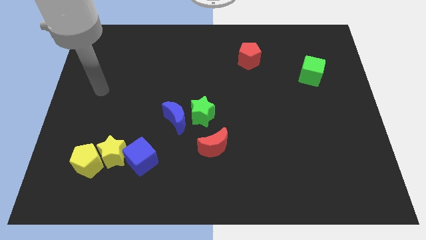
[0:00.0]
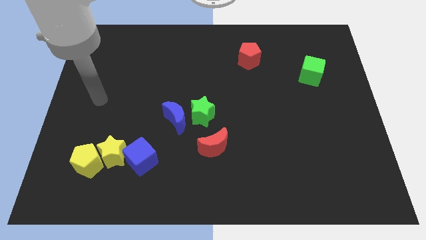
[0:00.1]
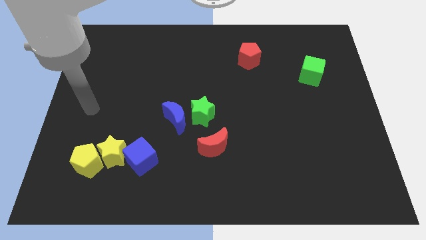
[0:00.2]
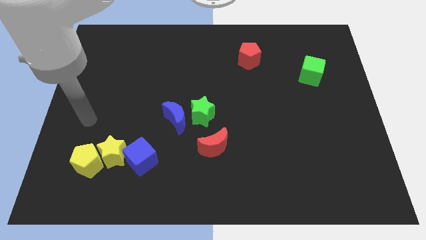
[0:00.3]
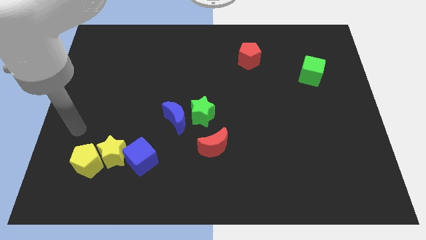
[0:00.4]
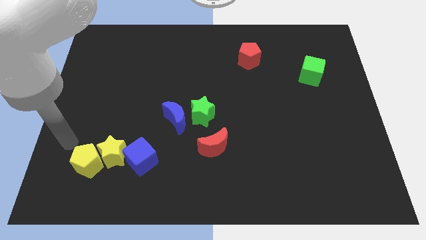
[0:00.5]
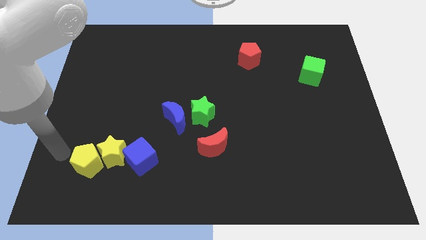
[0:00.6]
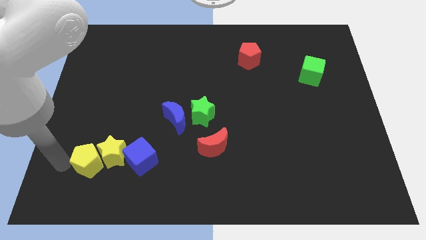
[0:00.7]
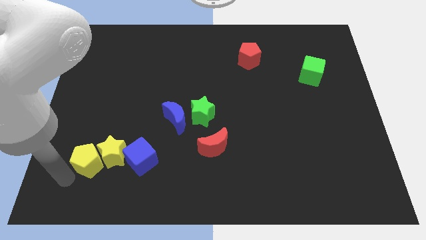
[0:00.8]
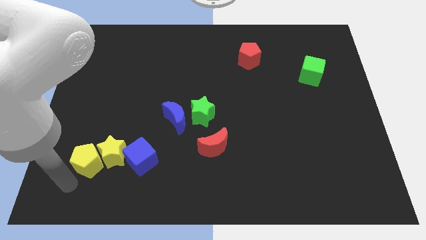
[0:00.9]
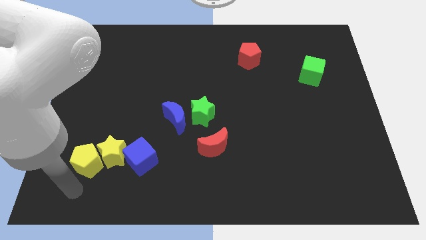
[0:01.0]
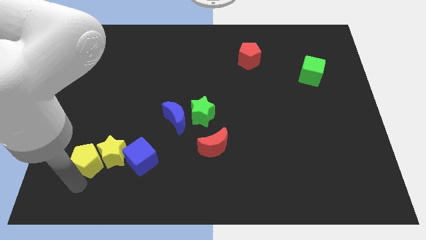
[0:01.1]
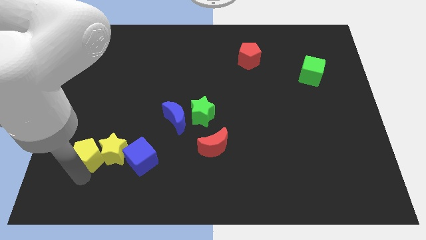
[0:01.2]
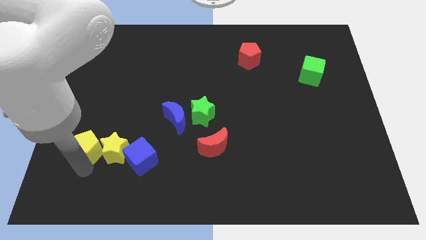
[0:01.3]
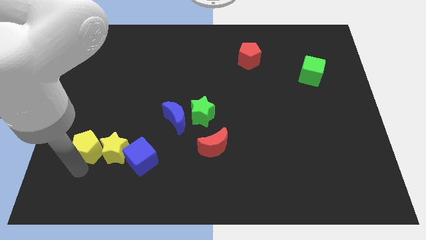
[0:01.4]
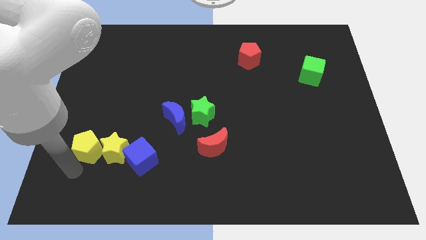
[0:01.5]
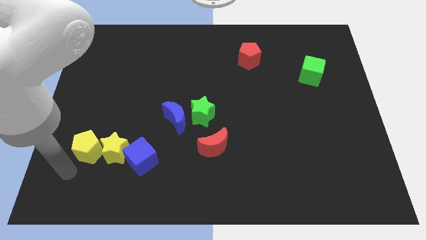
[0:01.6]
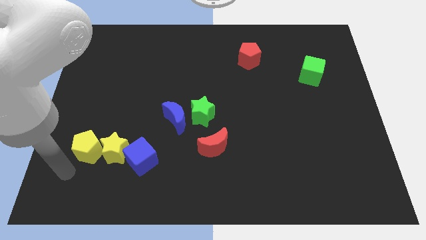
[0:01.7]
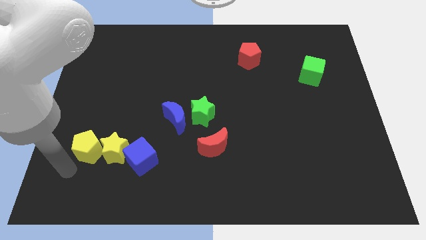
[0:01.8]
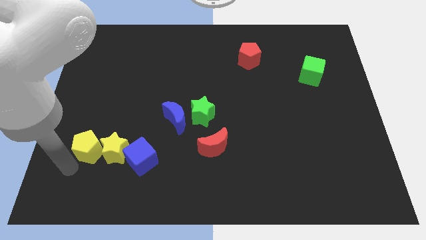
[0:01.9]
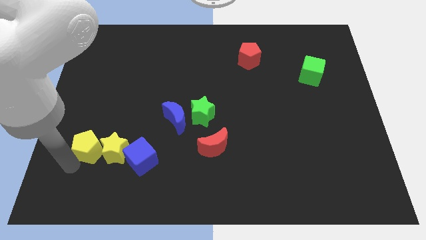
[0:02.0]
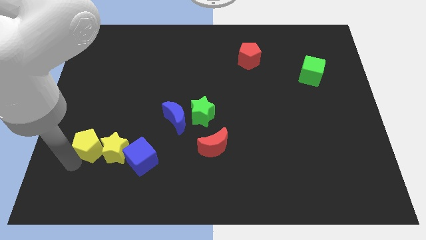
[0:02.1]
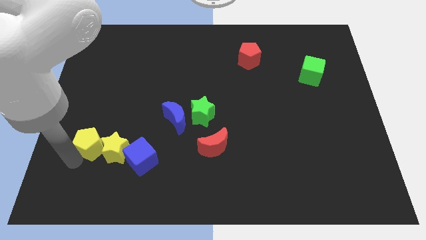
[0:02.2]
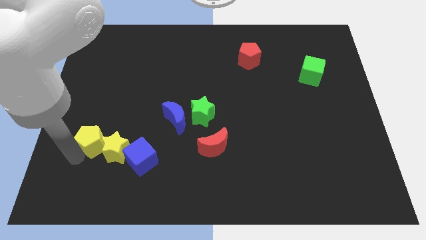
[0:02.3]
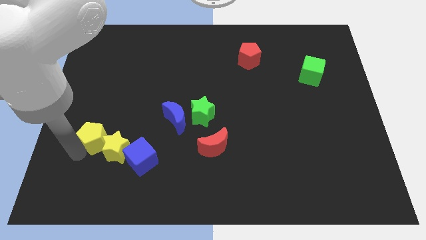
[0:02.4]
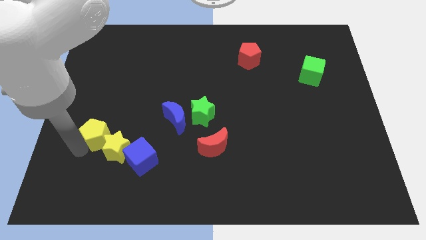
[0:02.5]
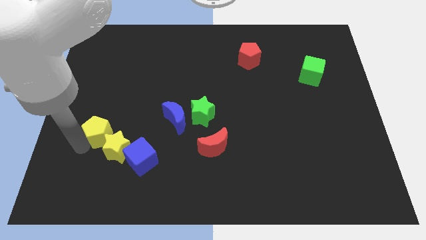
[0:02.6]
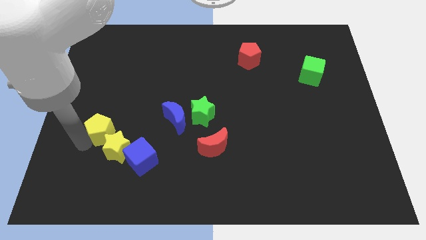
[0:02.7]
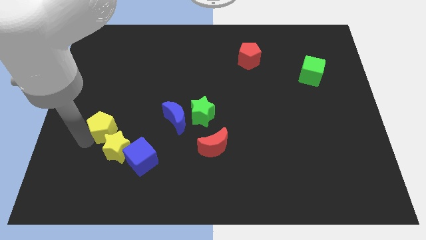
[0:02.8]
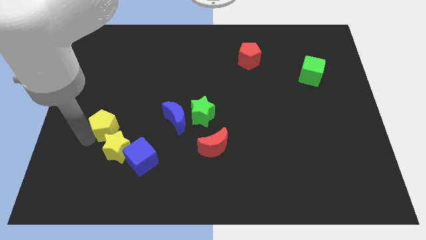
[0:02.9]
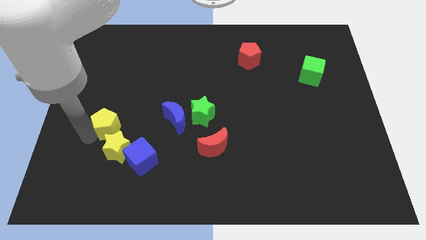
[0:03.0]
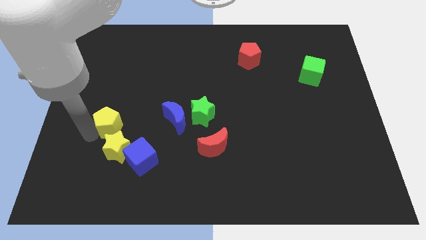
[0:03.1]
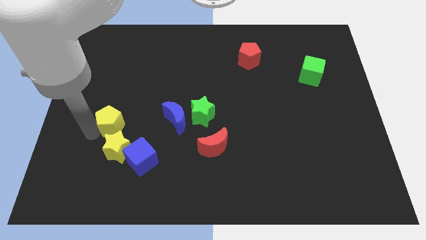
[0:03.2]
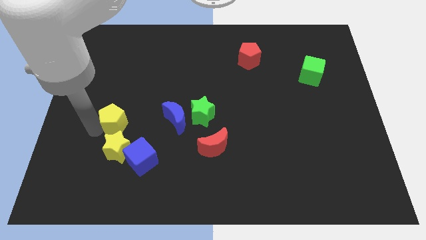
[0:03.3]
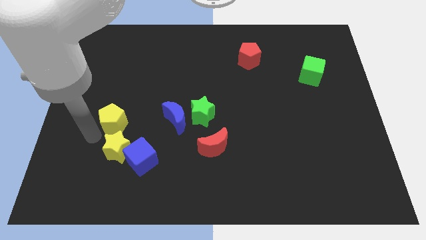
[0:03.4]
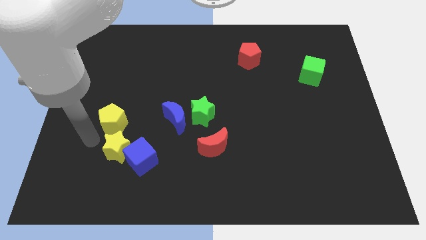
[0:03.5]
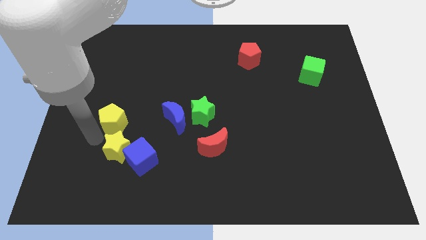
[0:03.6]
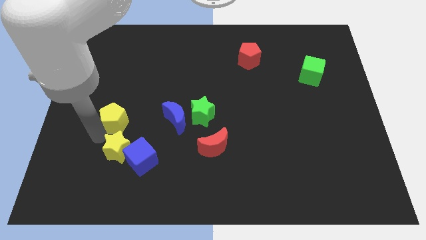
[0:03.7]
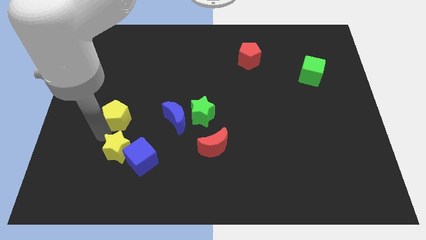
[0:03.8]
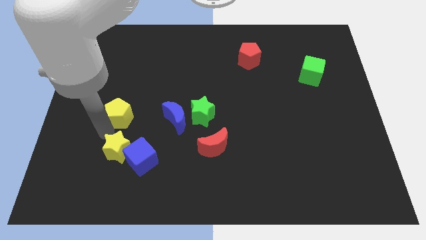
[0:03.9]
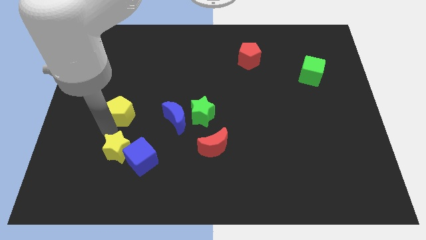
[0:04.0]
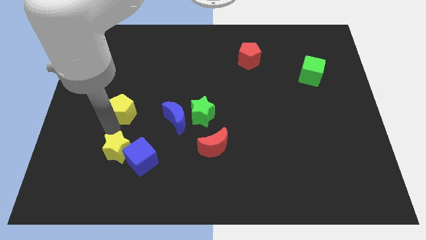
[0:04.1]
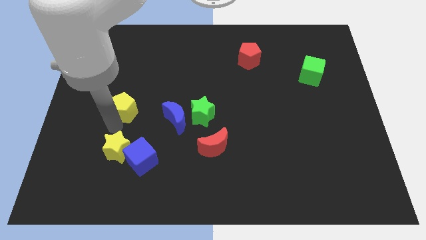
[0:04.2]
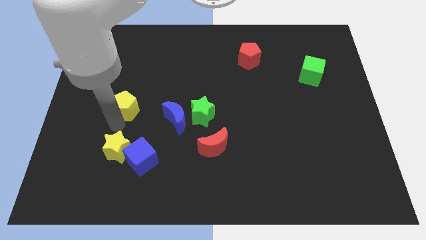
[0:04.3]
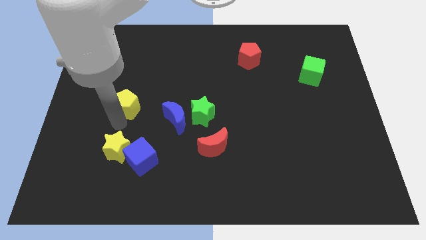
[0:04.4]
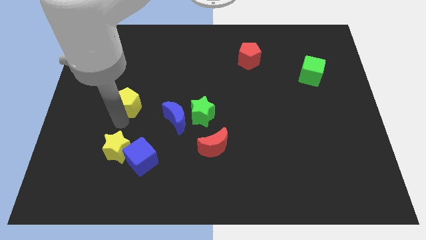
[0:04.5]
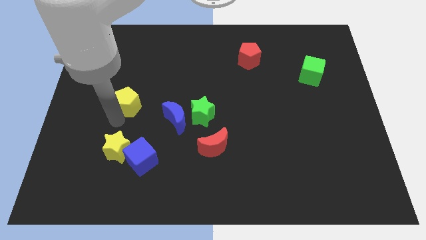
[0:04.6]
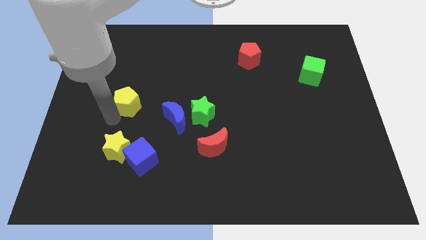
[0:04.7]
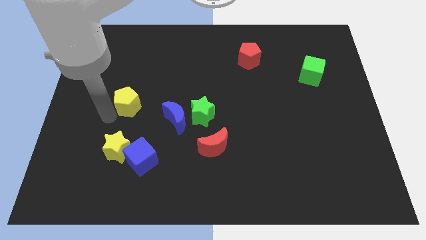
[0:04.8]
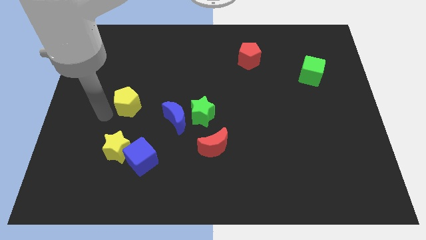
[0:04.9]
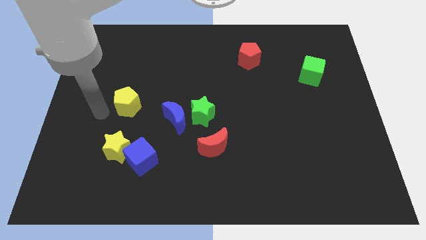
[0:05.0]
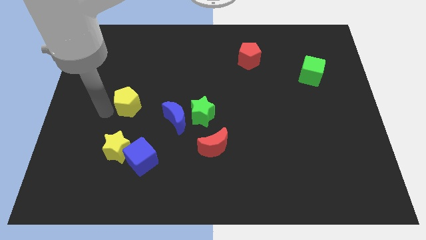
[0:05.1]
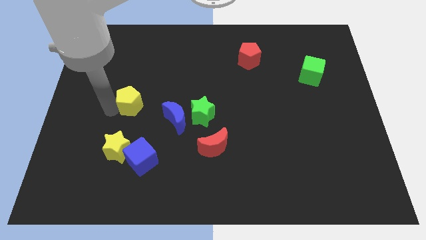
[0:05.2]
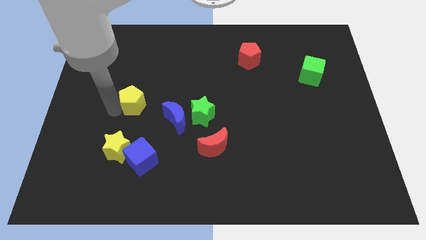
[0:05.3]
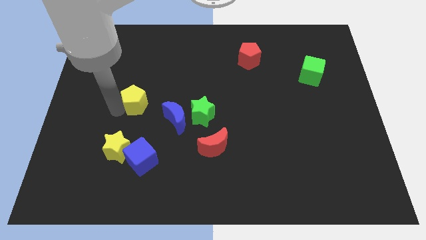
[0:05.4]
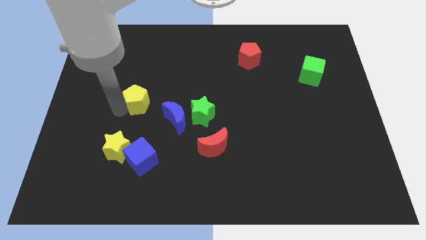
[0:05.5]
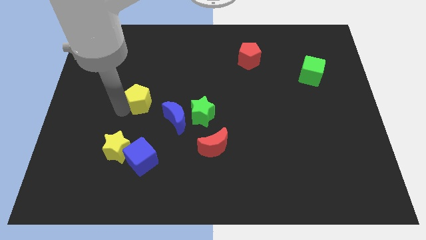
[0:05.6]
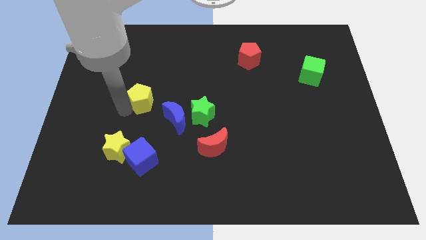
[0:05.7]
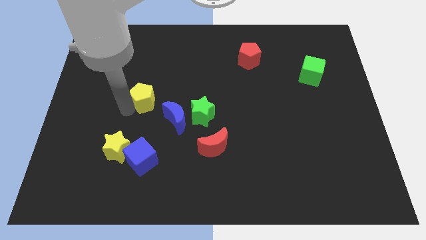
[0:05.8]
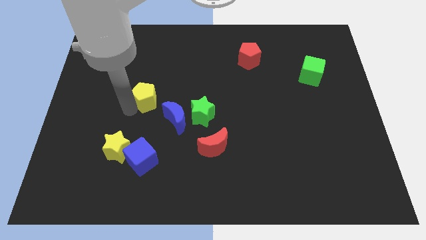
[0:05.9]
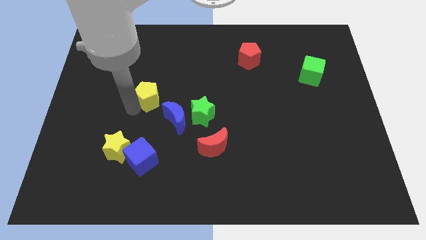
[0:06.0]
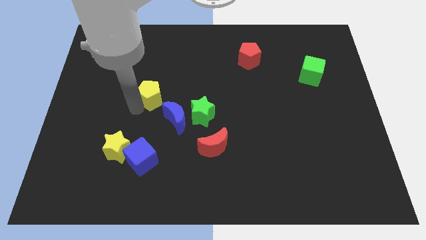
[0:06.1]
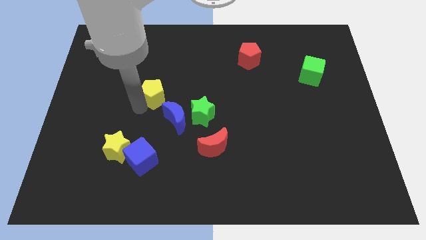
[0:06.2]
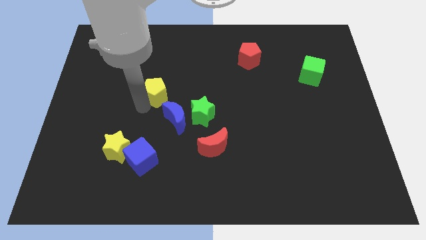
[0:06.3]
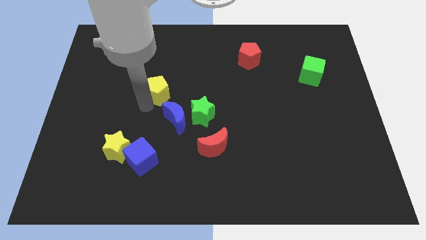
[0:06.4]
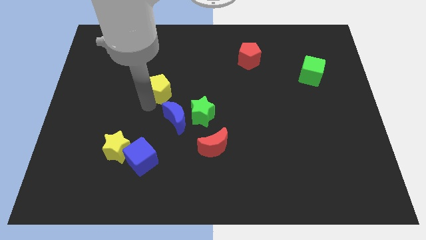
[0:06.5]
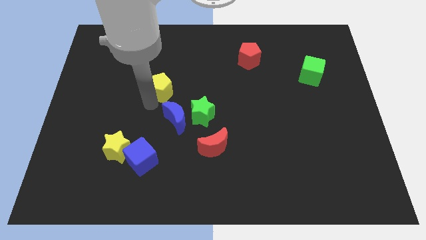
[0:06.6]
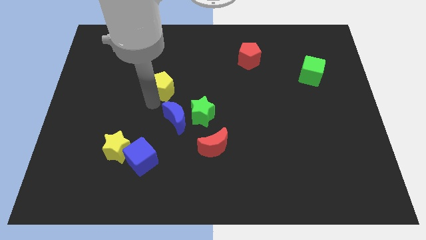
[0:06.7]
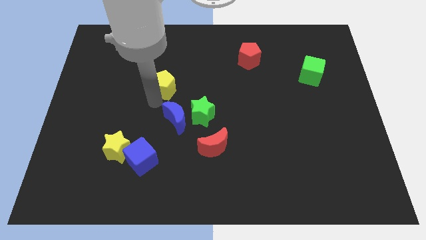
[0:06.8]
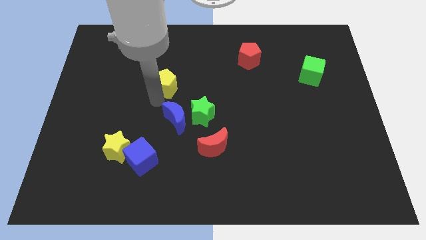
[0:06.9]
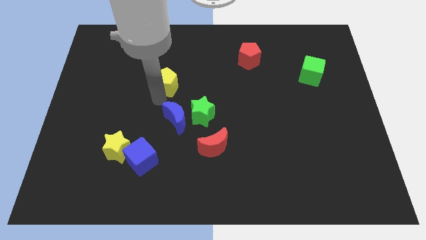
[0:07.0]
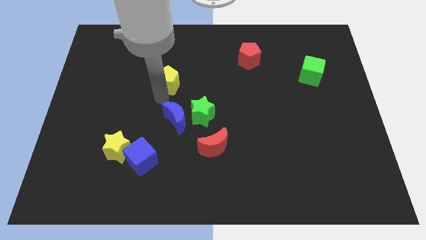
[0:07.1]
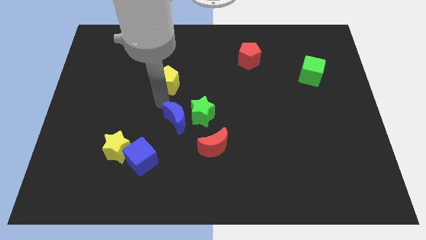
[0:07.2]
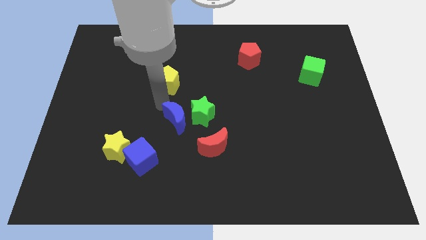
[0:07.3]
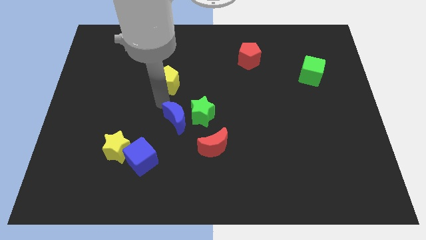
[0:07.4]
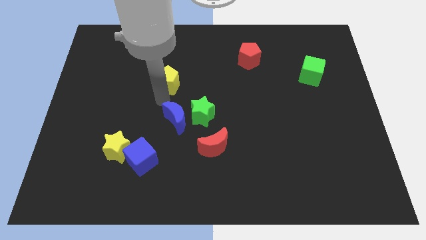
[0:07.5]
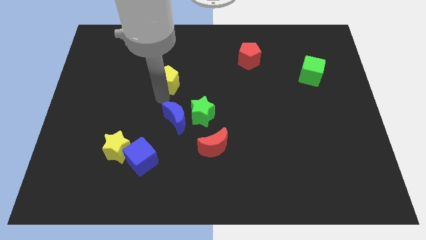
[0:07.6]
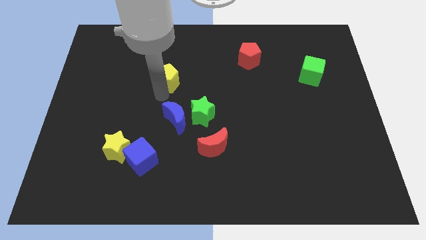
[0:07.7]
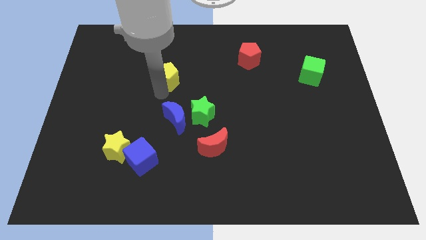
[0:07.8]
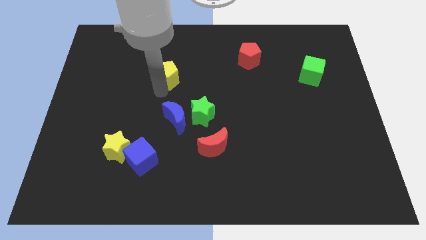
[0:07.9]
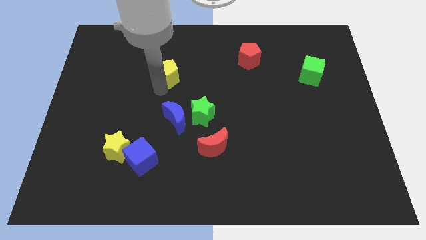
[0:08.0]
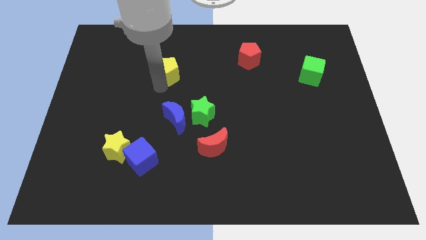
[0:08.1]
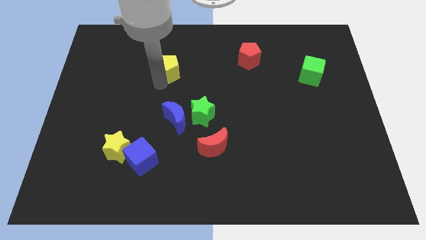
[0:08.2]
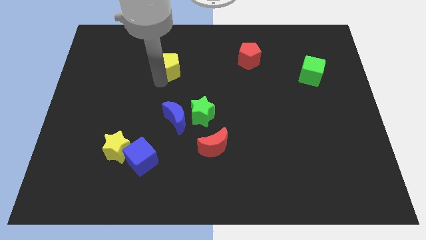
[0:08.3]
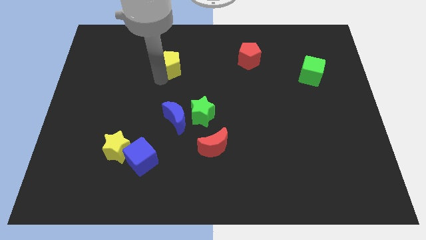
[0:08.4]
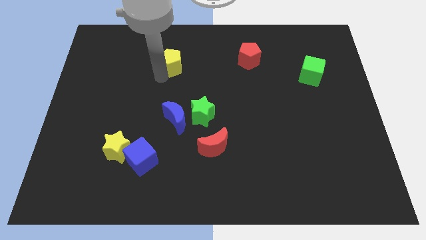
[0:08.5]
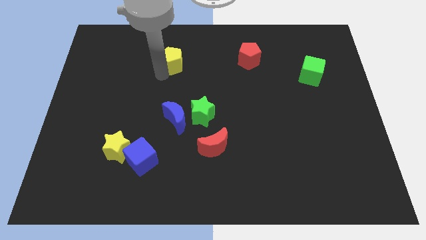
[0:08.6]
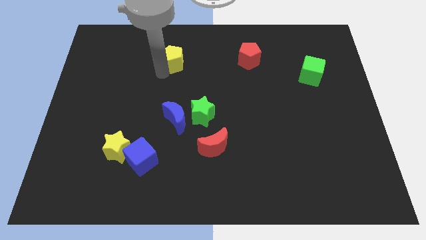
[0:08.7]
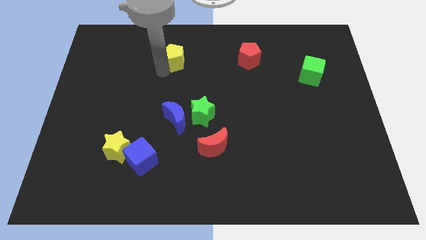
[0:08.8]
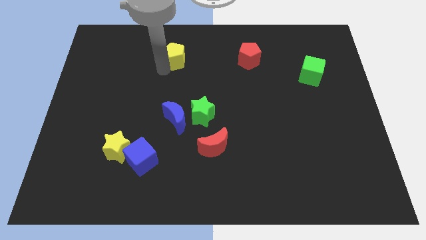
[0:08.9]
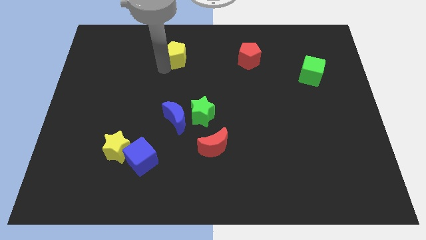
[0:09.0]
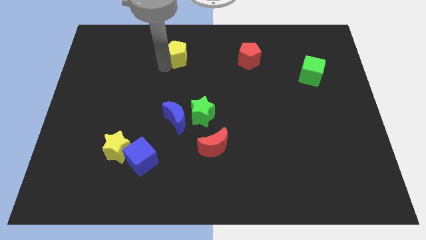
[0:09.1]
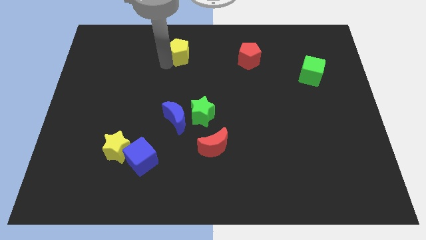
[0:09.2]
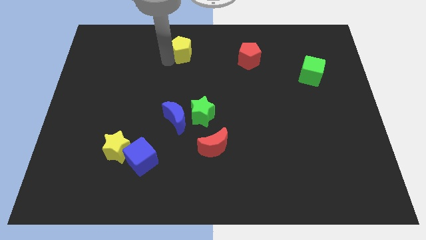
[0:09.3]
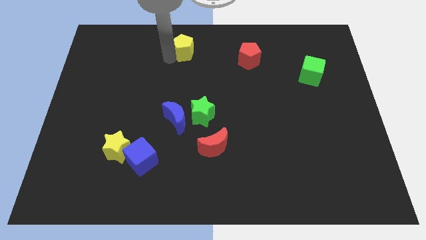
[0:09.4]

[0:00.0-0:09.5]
move the yellow pentagon to the top side
